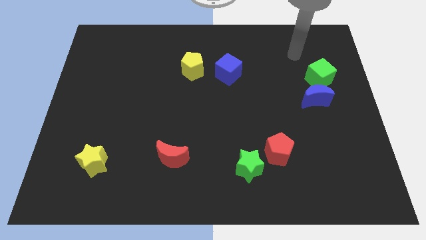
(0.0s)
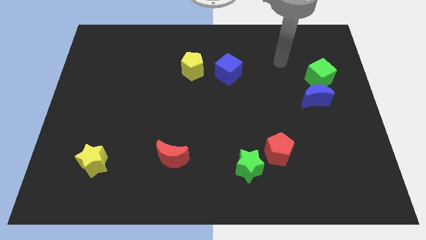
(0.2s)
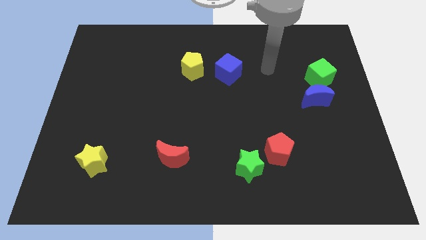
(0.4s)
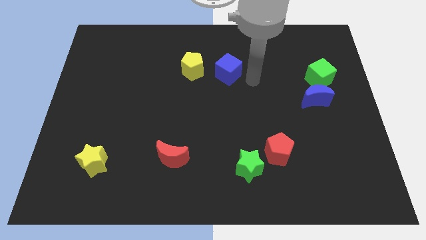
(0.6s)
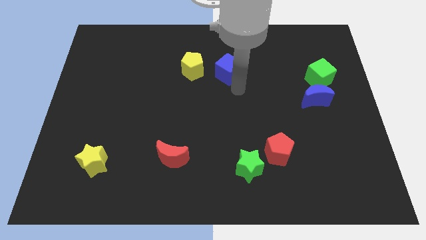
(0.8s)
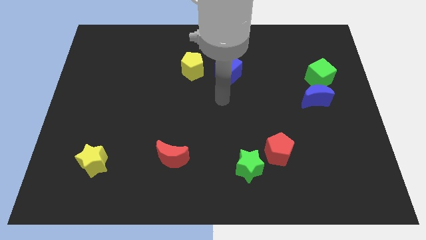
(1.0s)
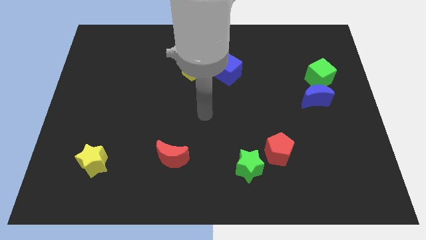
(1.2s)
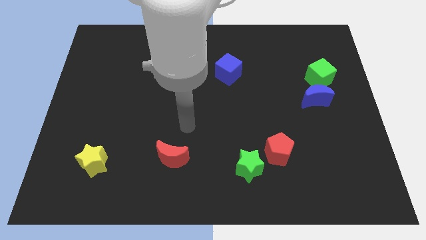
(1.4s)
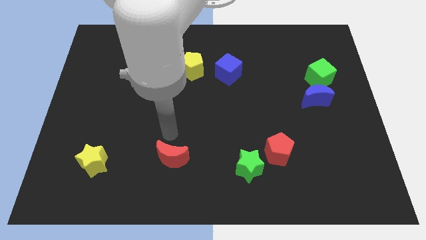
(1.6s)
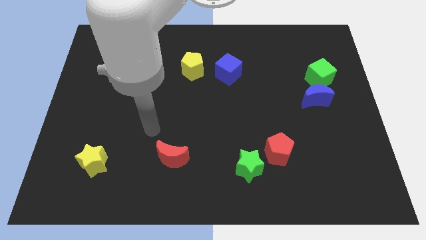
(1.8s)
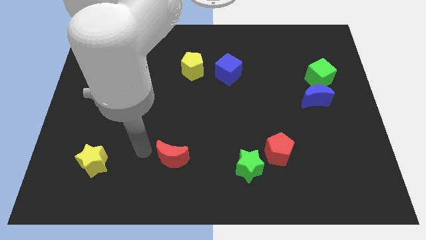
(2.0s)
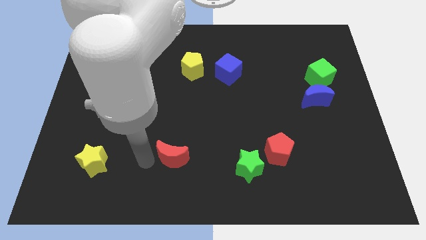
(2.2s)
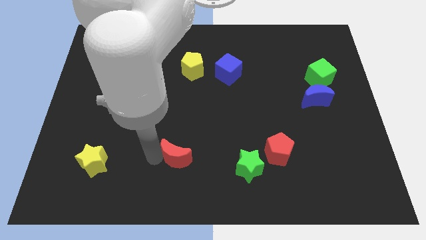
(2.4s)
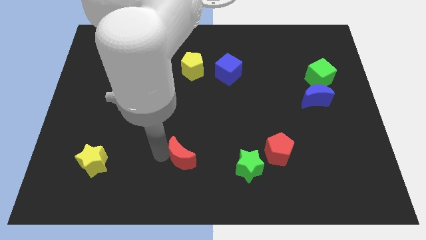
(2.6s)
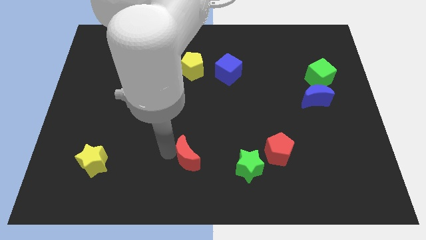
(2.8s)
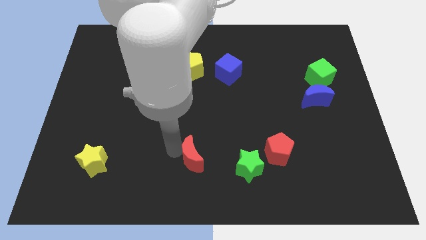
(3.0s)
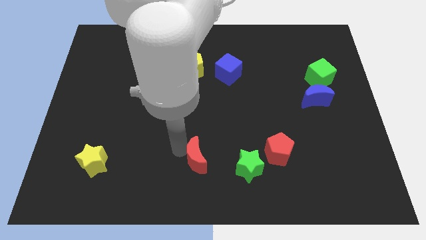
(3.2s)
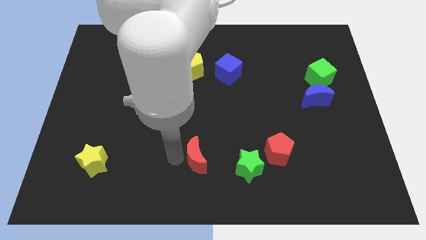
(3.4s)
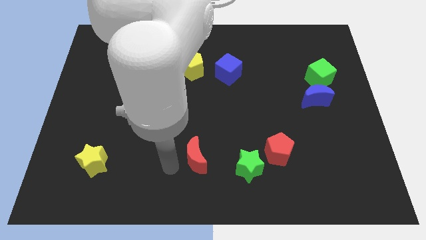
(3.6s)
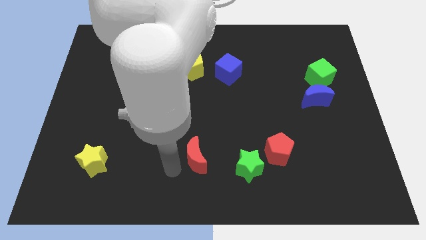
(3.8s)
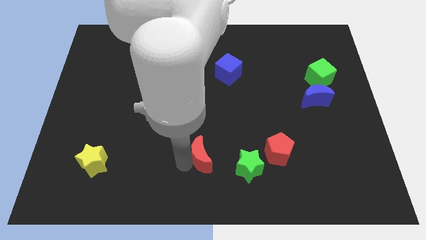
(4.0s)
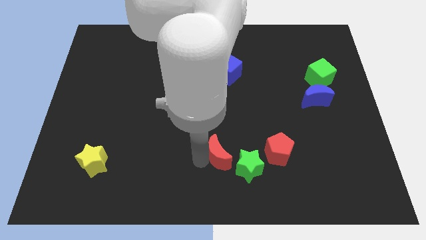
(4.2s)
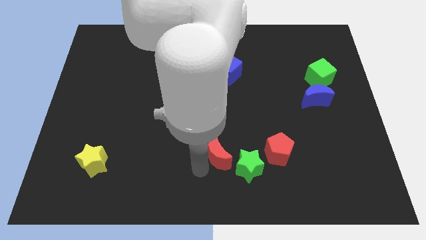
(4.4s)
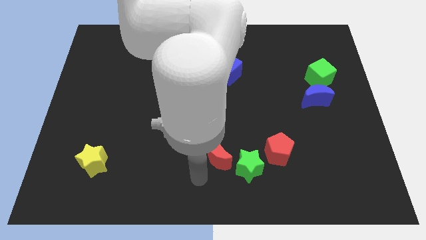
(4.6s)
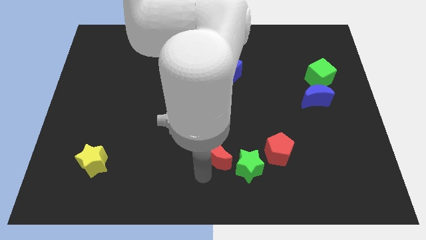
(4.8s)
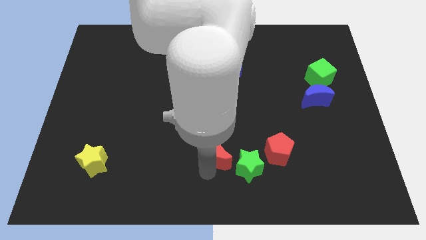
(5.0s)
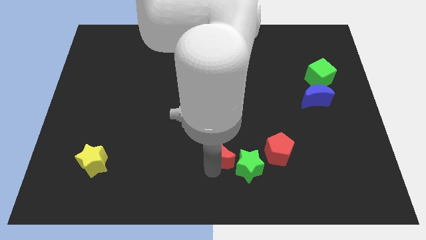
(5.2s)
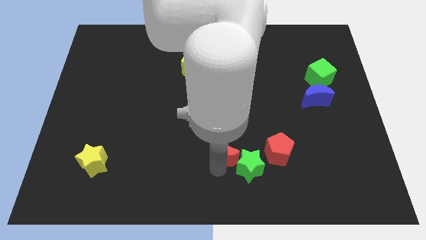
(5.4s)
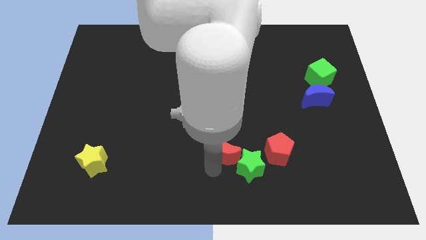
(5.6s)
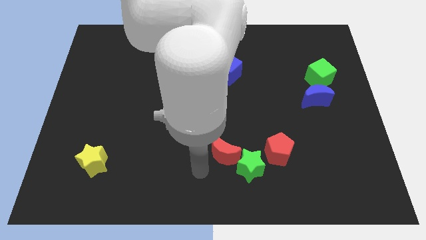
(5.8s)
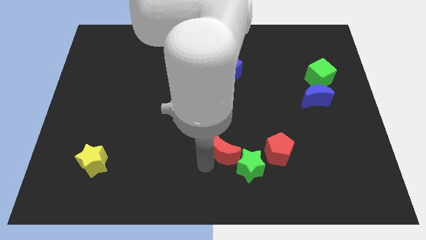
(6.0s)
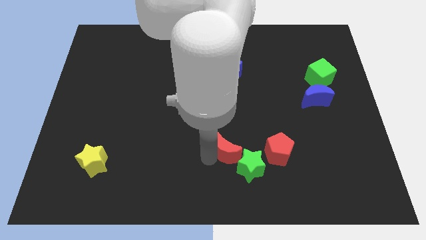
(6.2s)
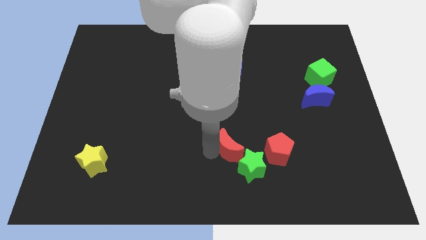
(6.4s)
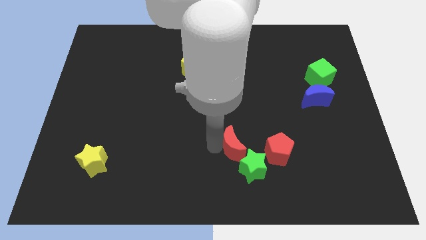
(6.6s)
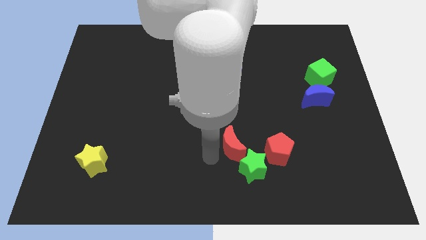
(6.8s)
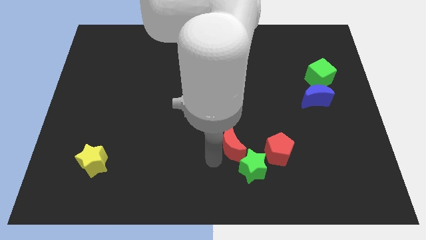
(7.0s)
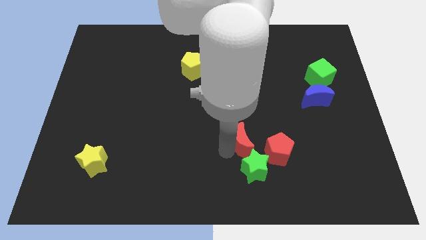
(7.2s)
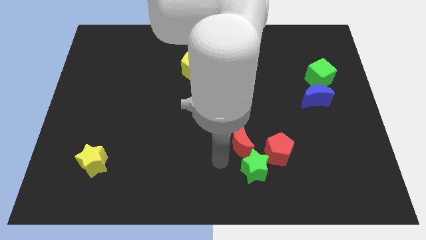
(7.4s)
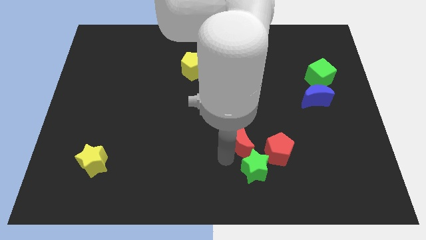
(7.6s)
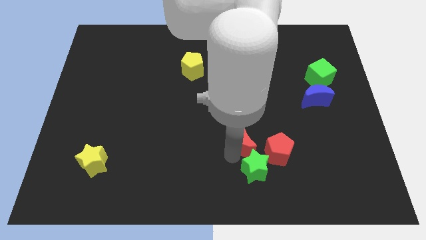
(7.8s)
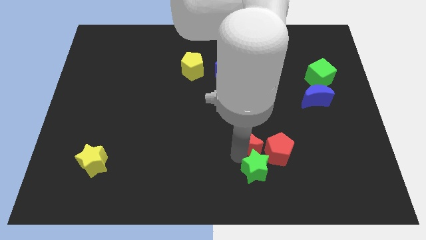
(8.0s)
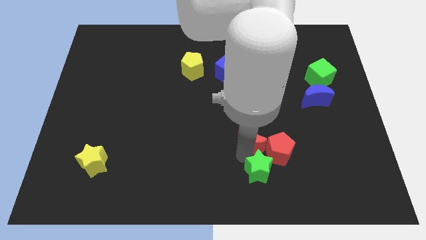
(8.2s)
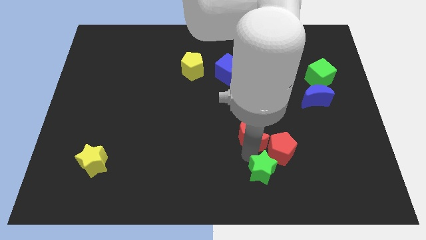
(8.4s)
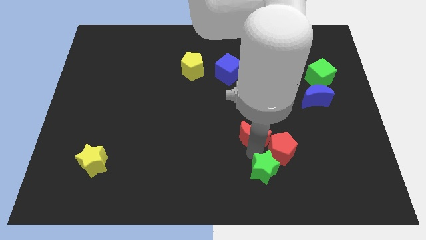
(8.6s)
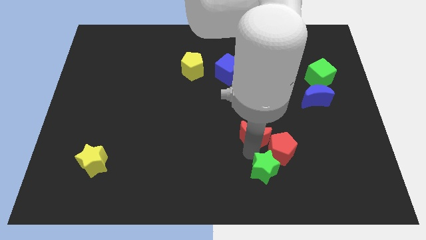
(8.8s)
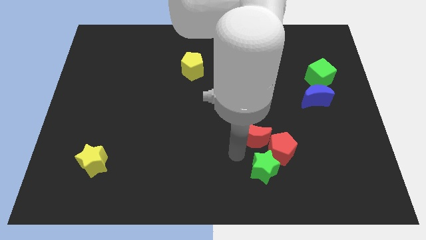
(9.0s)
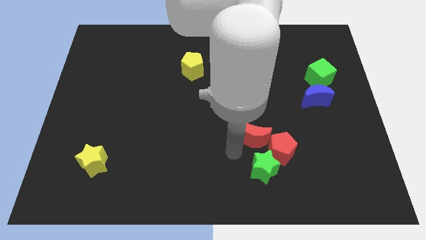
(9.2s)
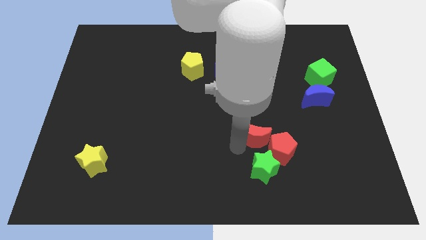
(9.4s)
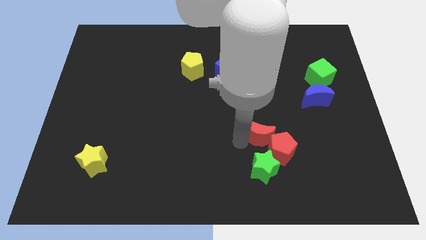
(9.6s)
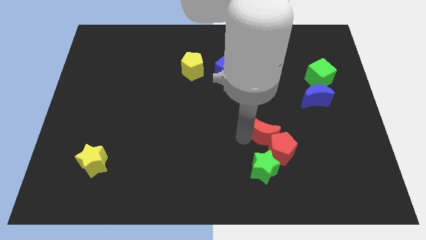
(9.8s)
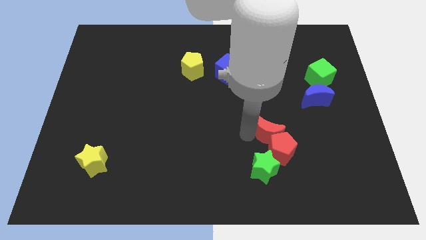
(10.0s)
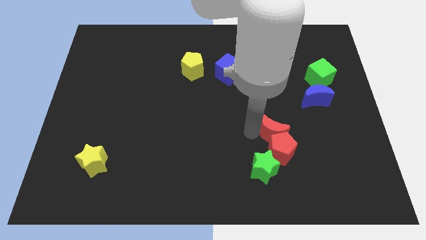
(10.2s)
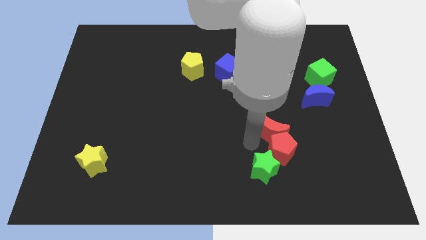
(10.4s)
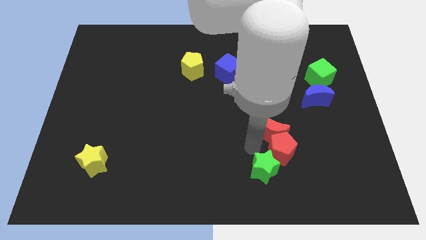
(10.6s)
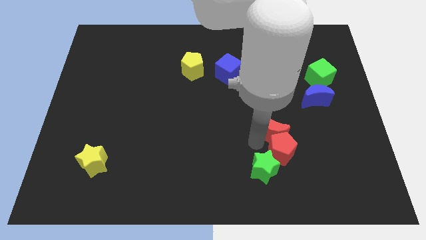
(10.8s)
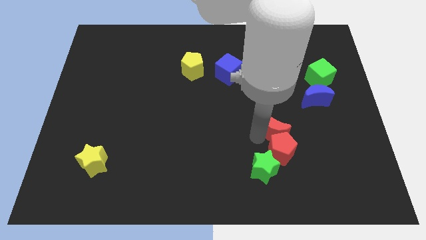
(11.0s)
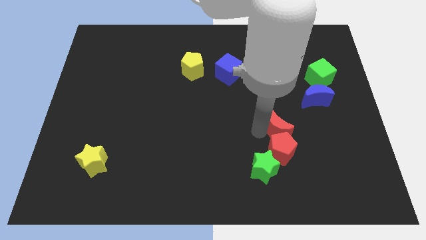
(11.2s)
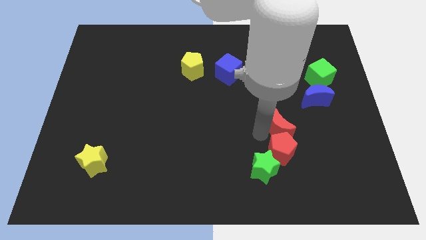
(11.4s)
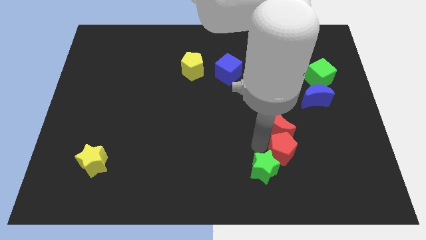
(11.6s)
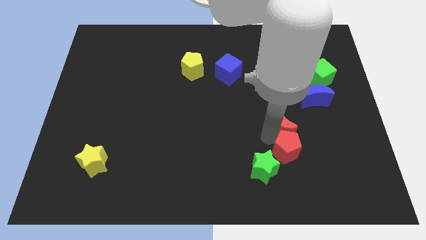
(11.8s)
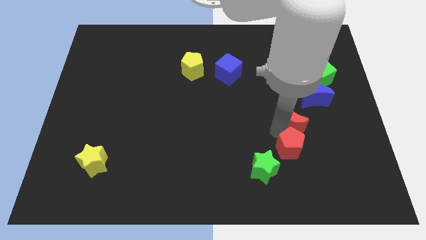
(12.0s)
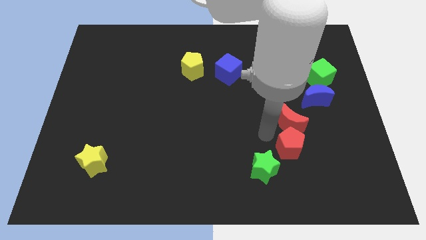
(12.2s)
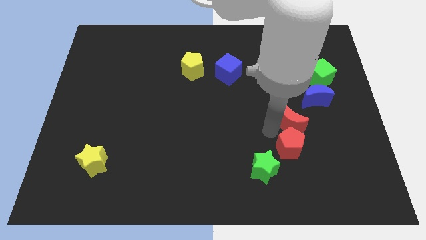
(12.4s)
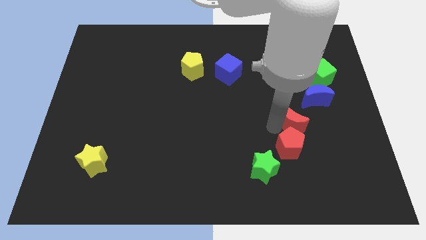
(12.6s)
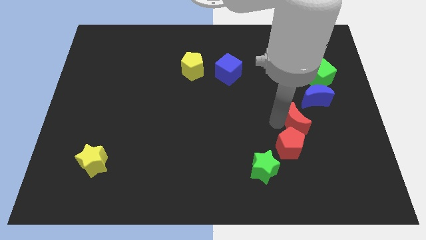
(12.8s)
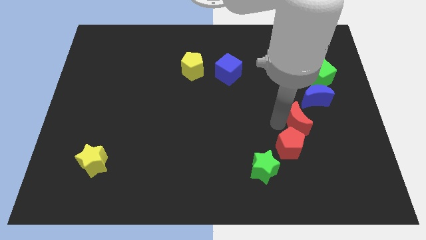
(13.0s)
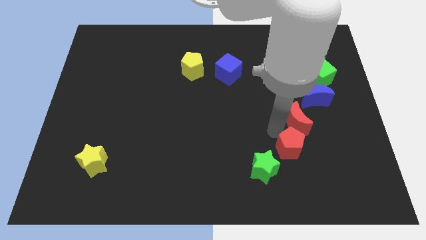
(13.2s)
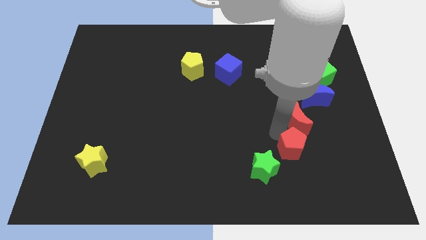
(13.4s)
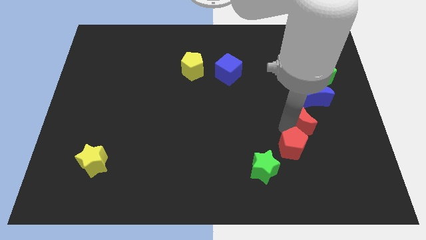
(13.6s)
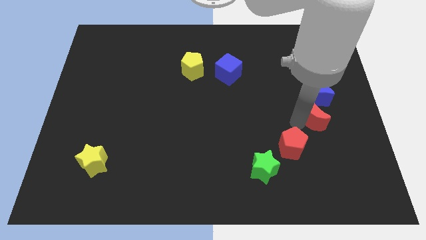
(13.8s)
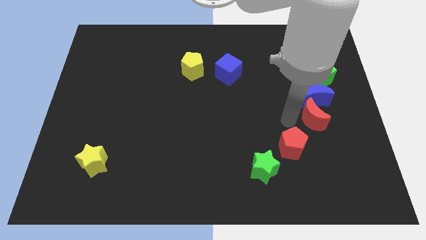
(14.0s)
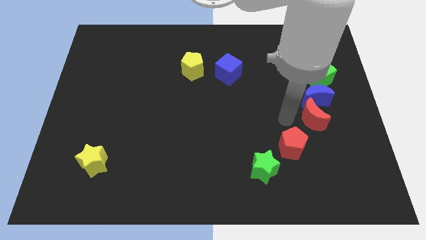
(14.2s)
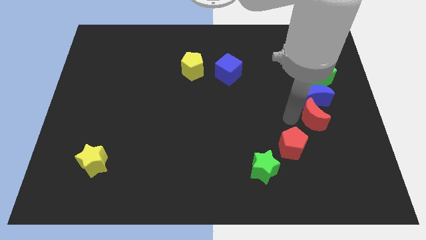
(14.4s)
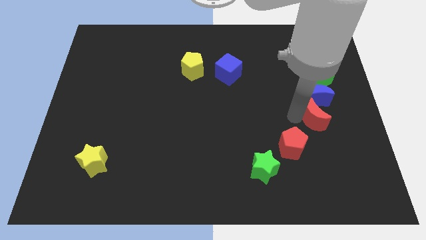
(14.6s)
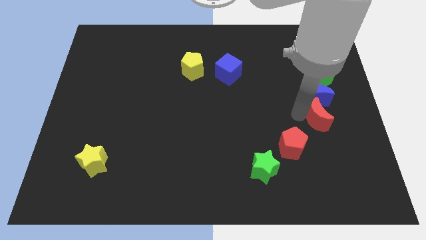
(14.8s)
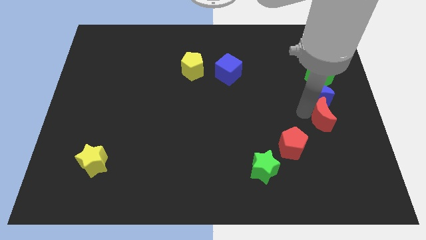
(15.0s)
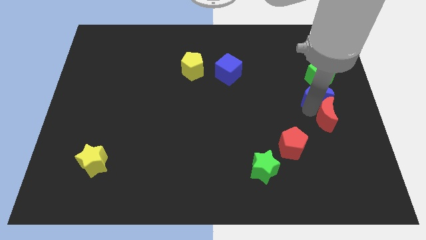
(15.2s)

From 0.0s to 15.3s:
slide the red moon to the right side
